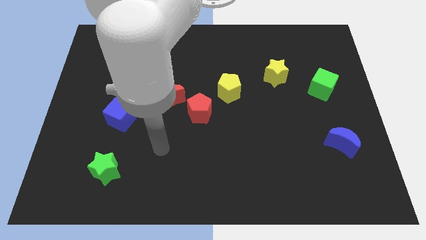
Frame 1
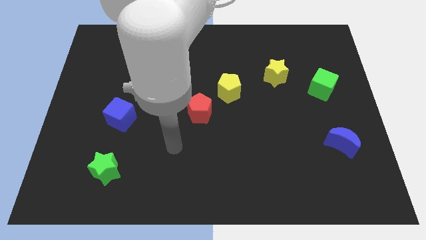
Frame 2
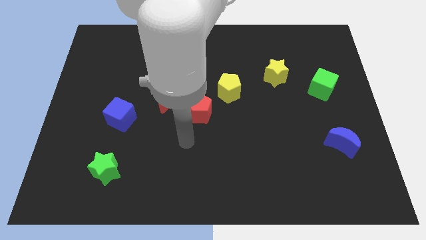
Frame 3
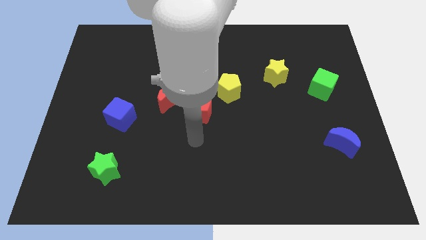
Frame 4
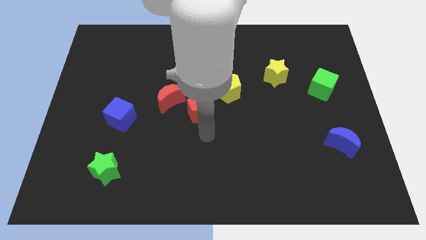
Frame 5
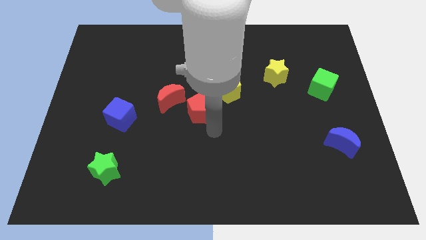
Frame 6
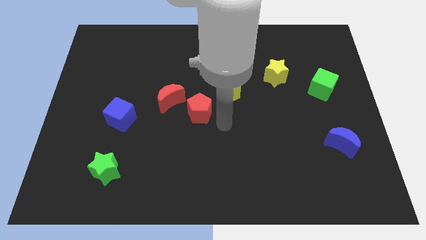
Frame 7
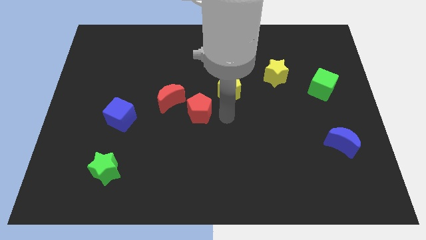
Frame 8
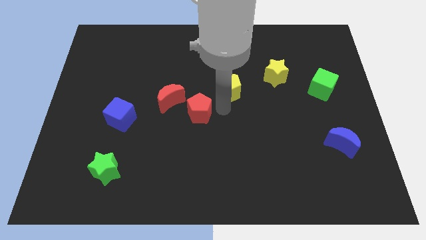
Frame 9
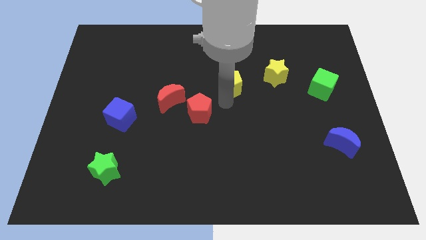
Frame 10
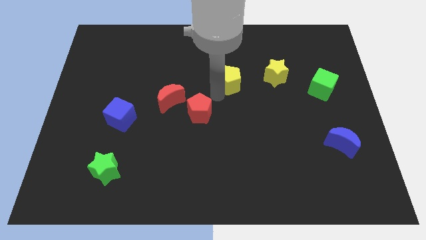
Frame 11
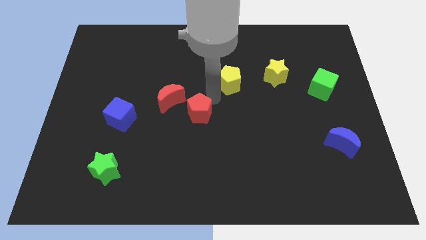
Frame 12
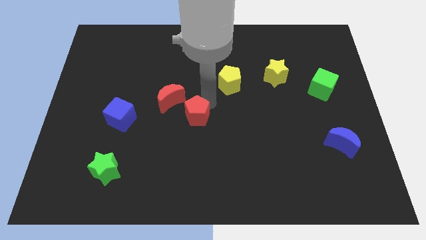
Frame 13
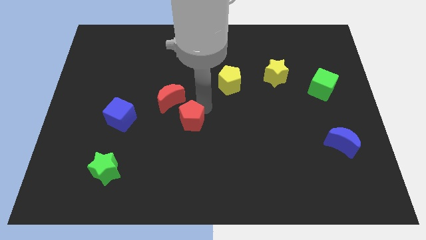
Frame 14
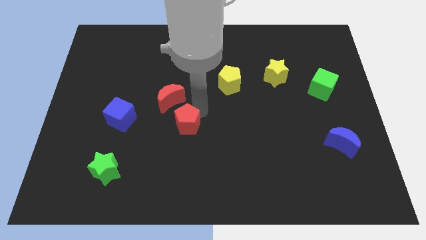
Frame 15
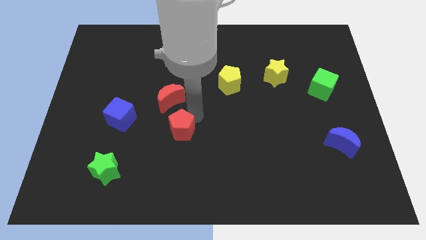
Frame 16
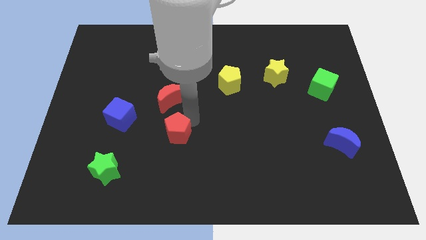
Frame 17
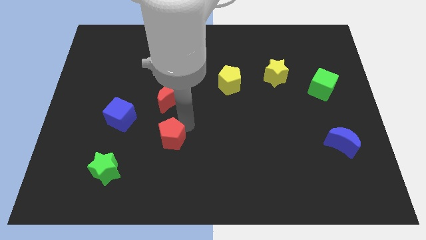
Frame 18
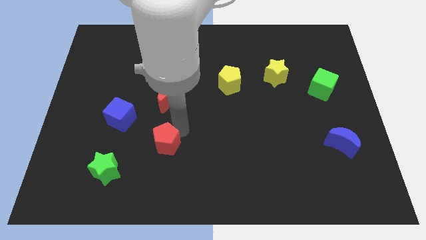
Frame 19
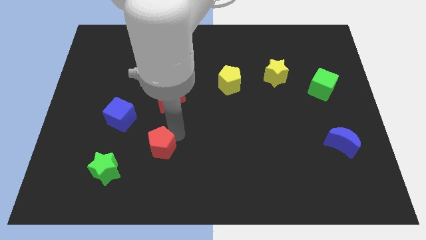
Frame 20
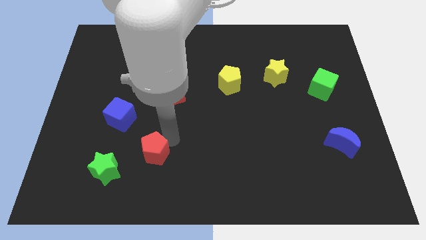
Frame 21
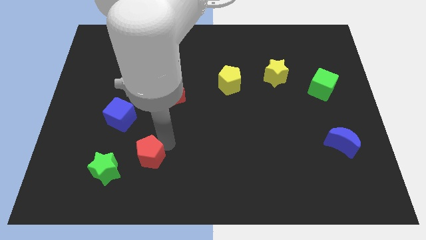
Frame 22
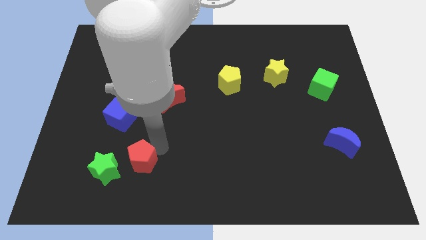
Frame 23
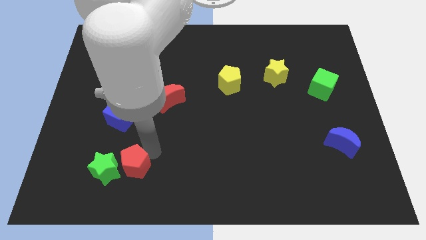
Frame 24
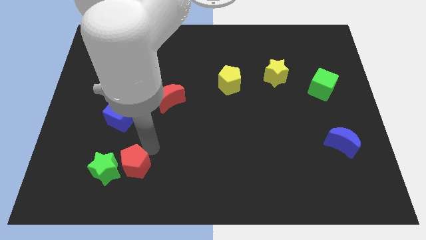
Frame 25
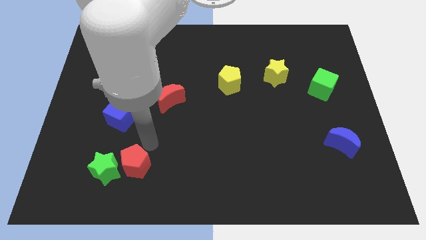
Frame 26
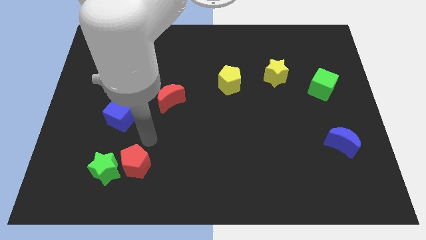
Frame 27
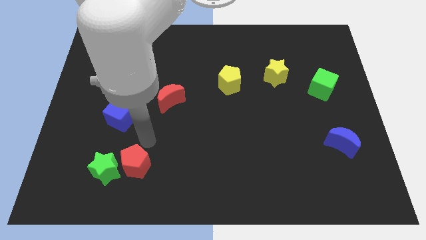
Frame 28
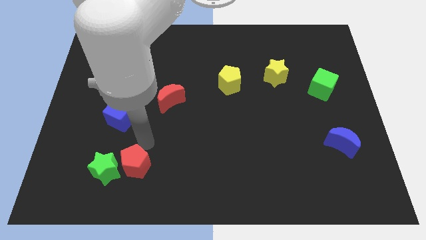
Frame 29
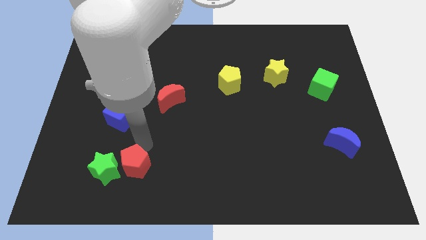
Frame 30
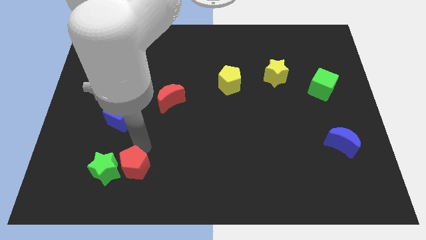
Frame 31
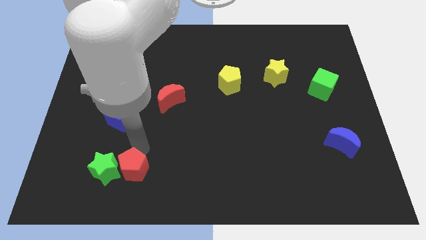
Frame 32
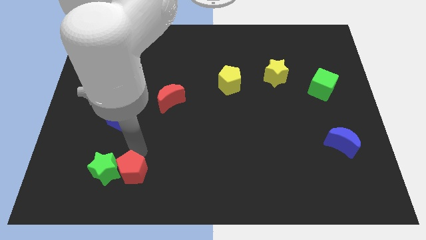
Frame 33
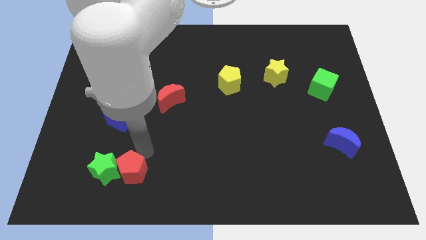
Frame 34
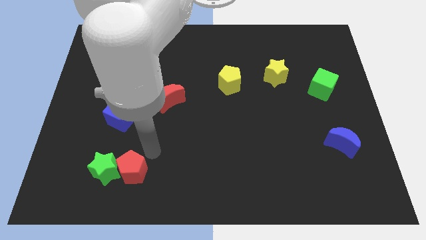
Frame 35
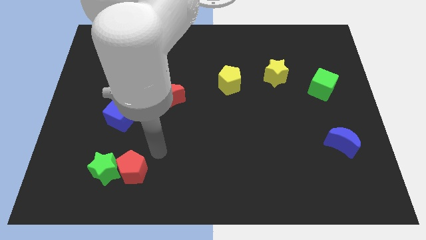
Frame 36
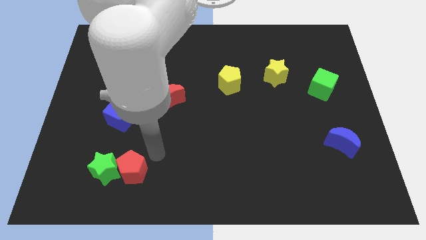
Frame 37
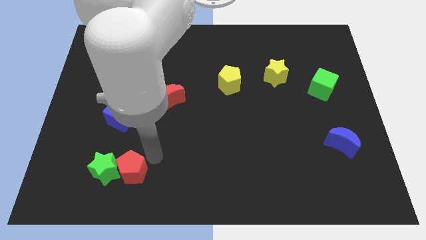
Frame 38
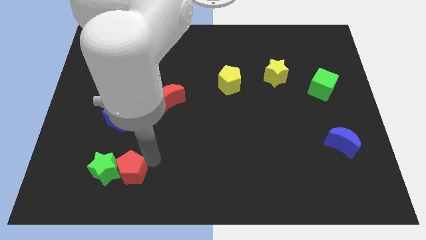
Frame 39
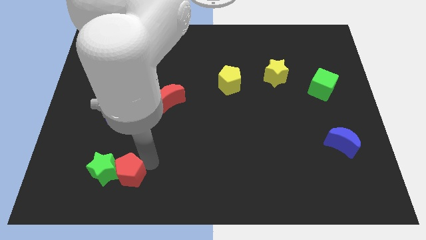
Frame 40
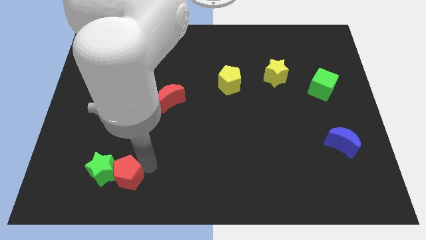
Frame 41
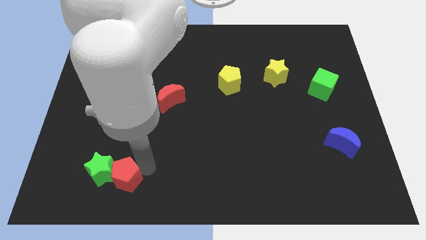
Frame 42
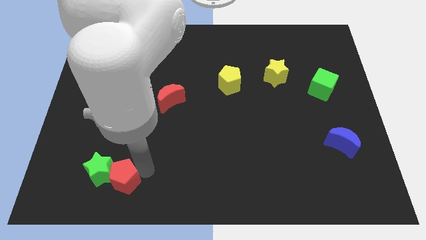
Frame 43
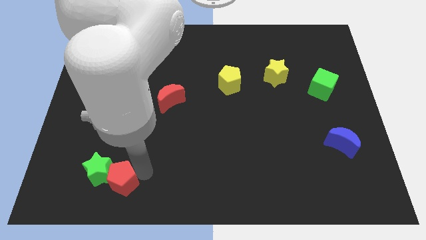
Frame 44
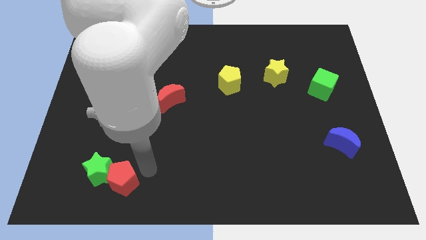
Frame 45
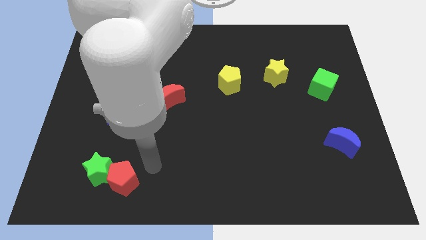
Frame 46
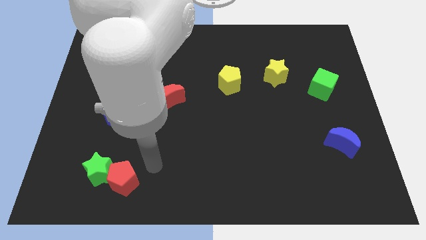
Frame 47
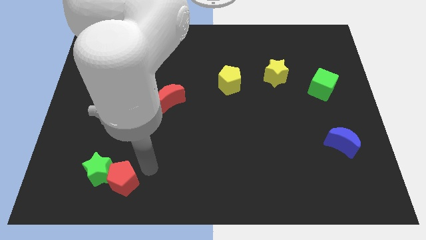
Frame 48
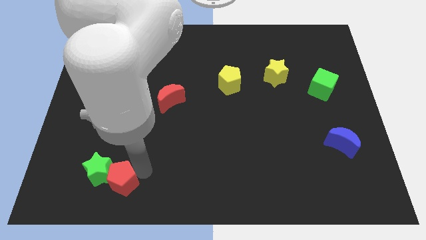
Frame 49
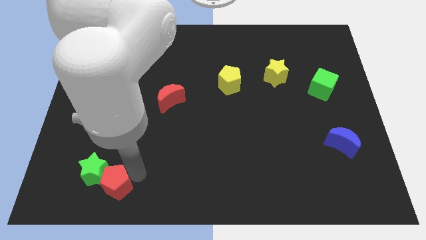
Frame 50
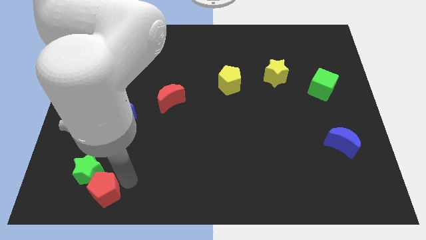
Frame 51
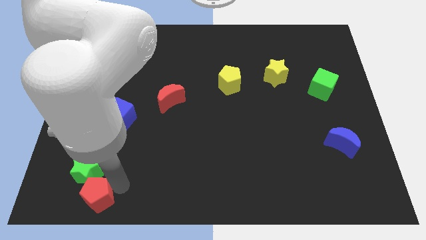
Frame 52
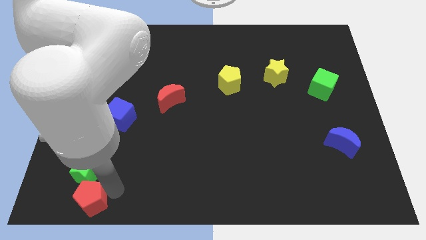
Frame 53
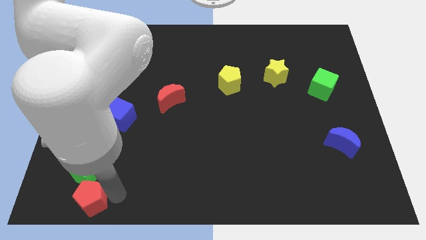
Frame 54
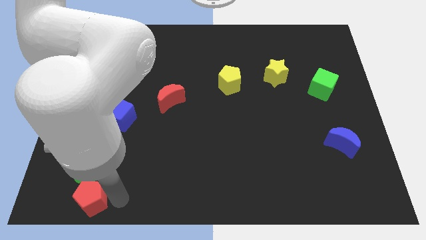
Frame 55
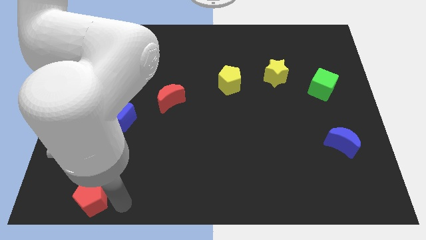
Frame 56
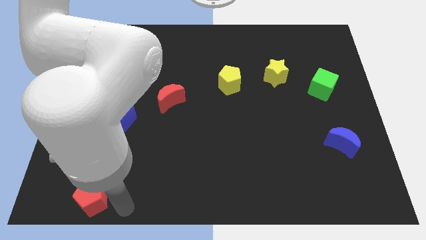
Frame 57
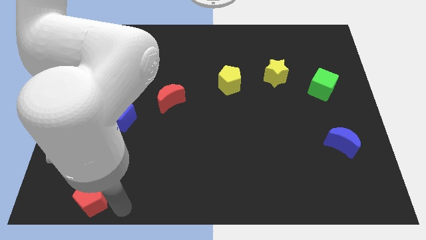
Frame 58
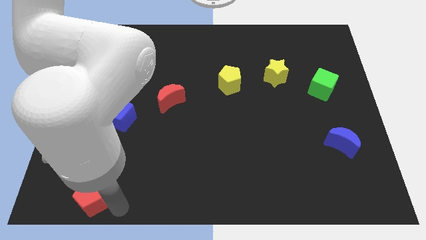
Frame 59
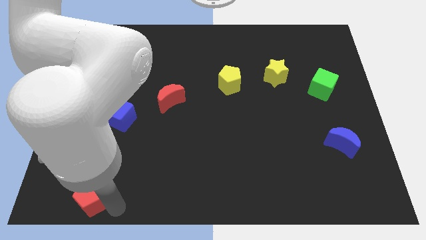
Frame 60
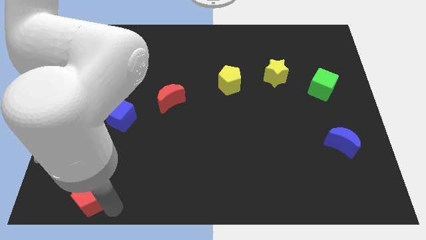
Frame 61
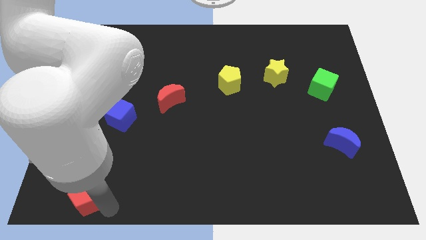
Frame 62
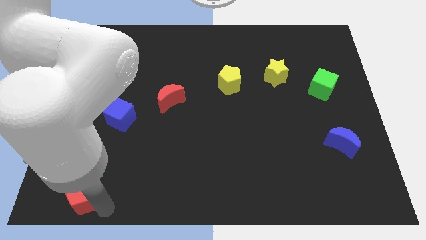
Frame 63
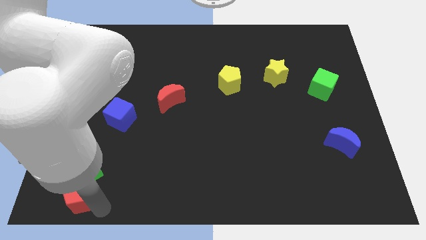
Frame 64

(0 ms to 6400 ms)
push the red pentagon to the bottom left corner

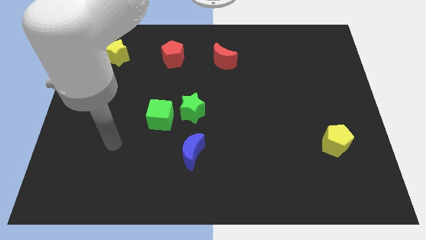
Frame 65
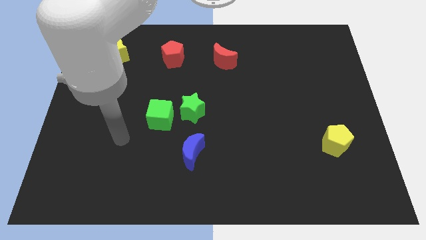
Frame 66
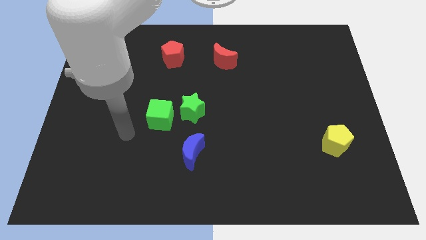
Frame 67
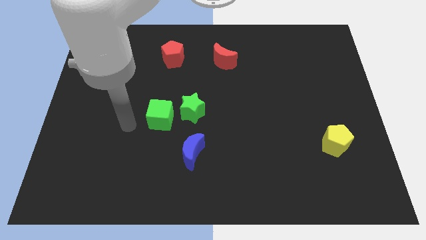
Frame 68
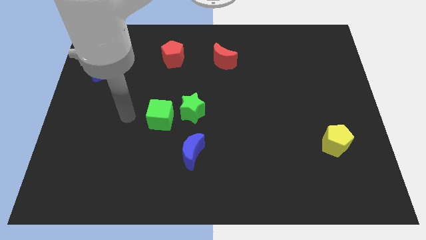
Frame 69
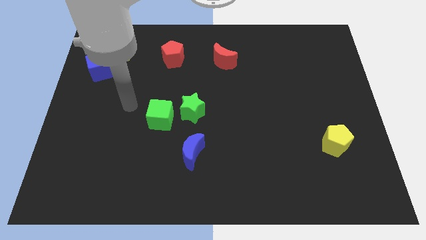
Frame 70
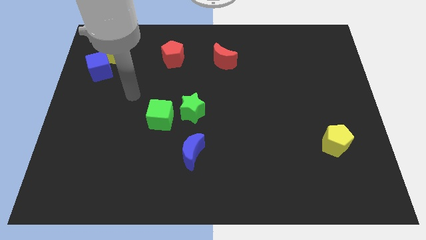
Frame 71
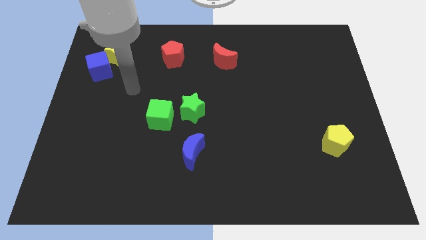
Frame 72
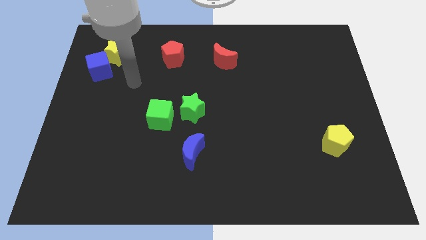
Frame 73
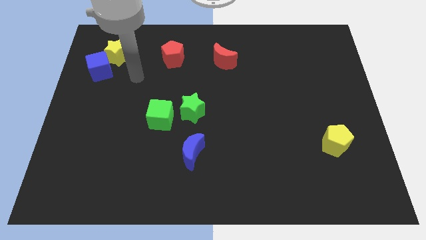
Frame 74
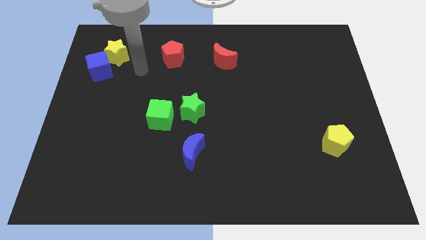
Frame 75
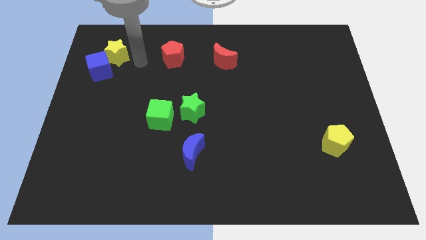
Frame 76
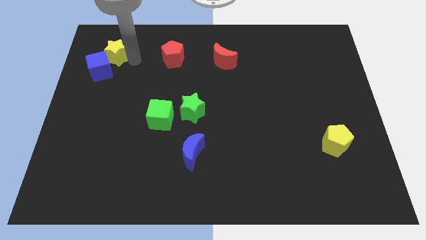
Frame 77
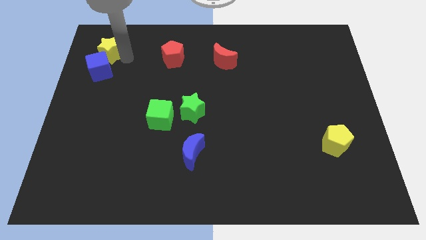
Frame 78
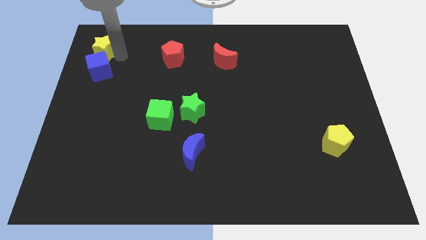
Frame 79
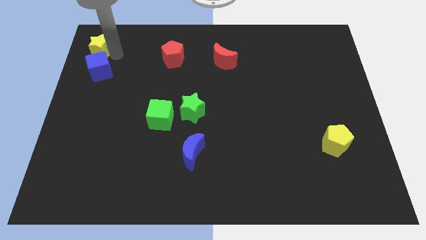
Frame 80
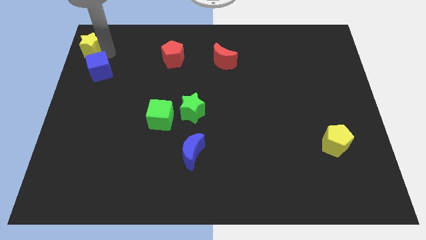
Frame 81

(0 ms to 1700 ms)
slide the yellow star to the top left of the board
